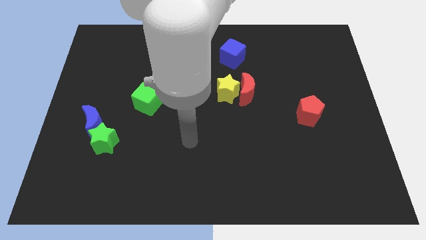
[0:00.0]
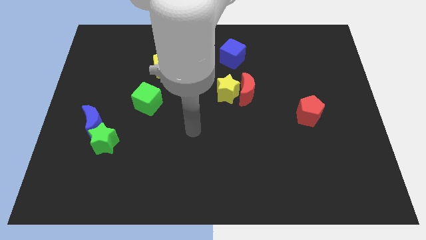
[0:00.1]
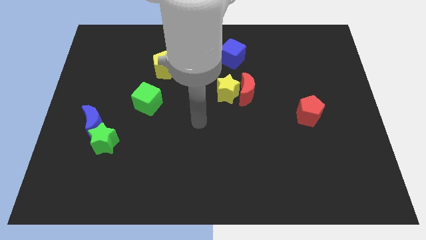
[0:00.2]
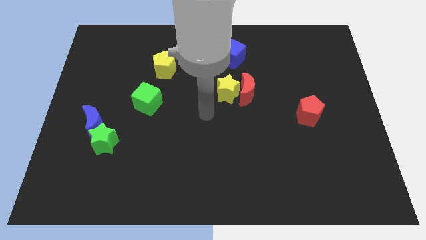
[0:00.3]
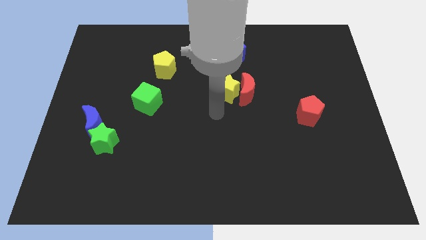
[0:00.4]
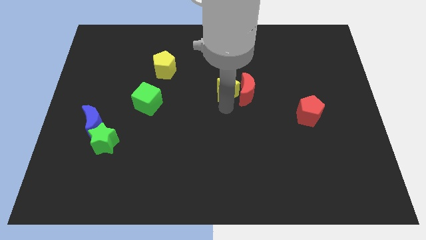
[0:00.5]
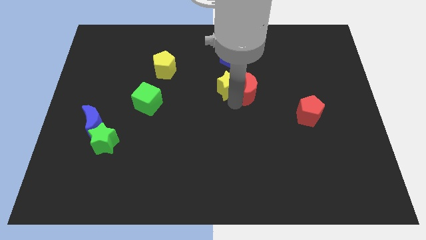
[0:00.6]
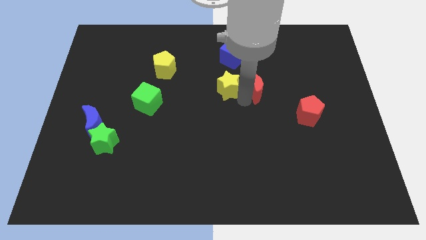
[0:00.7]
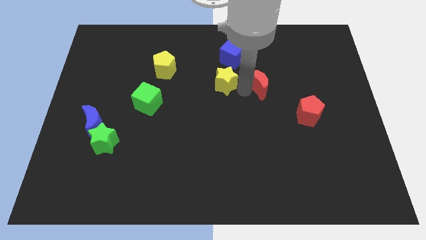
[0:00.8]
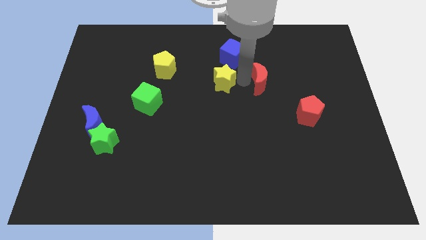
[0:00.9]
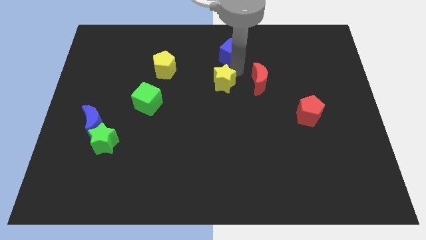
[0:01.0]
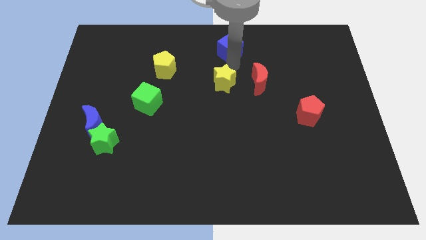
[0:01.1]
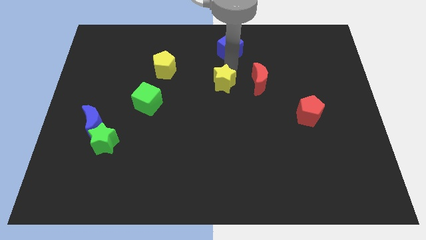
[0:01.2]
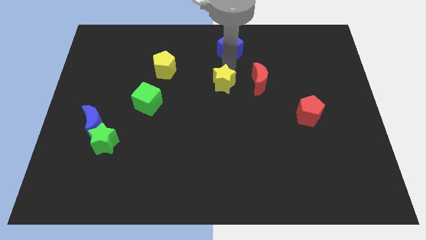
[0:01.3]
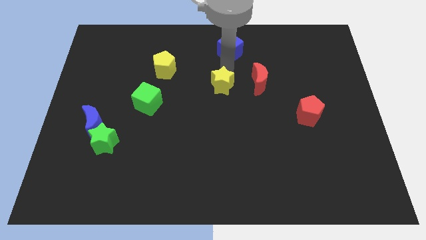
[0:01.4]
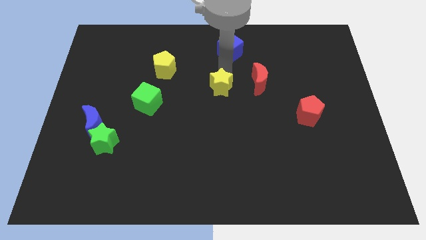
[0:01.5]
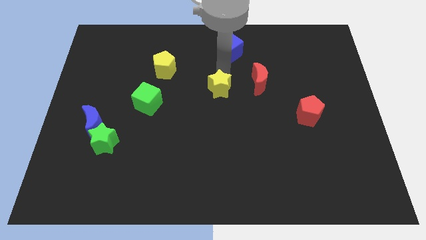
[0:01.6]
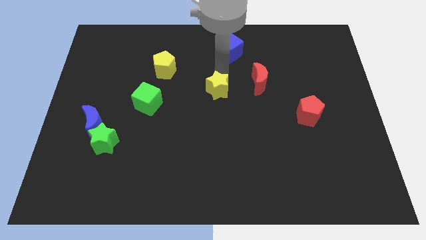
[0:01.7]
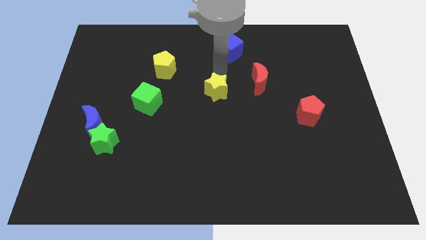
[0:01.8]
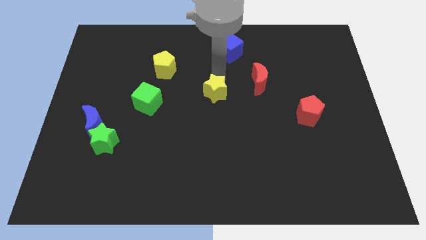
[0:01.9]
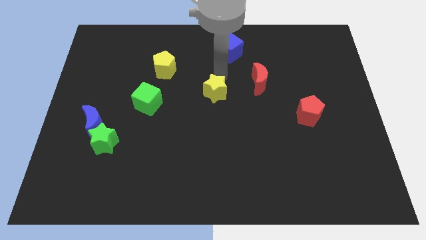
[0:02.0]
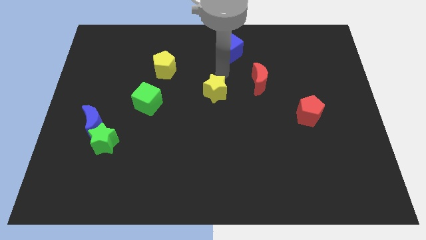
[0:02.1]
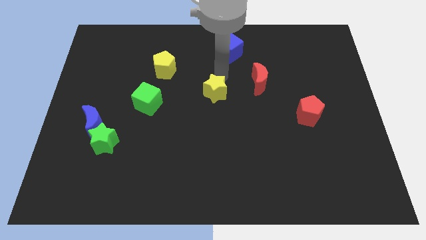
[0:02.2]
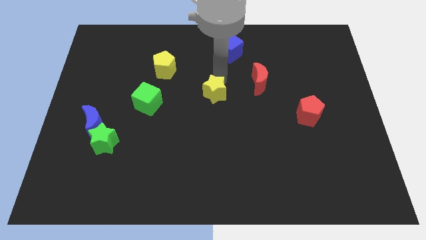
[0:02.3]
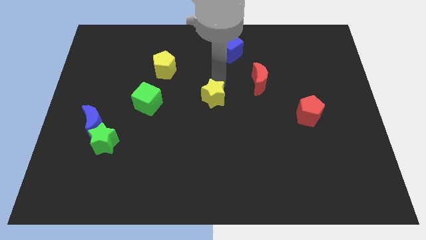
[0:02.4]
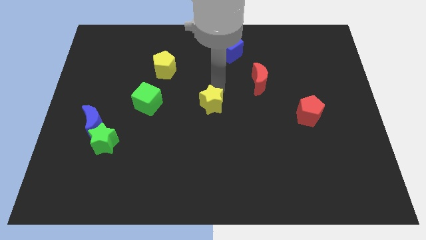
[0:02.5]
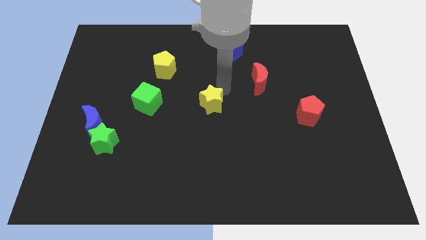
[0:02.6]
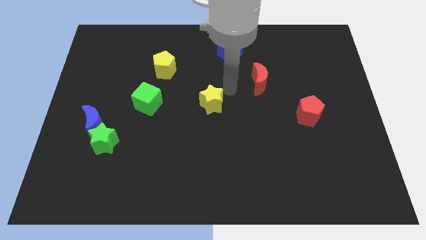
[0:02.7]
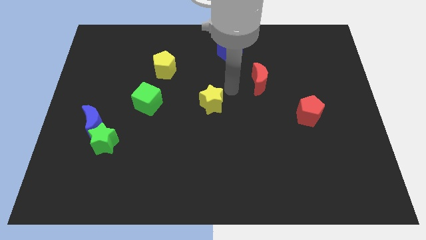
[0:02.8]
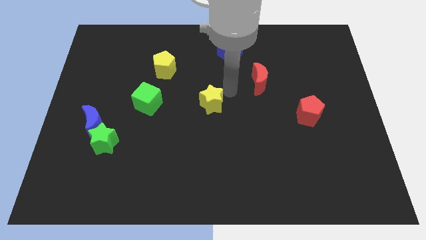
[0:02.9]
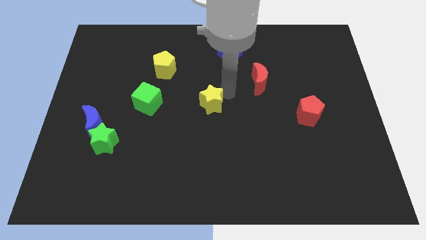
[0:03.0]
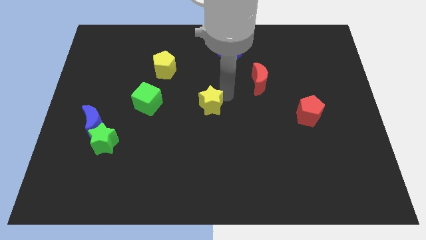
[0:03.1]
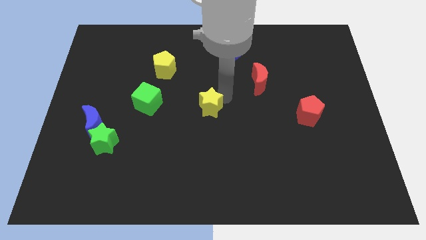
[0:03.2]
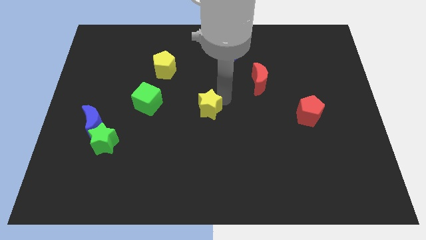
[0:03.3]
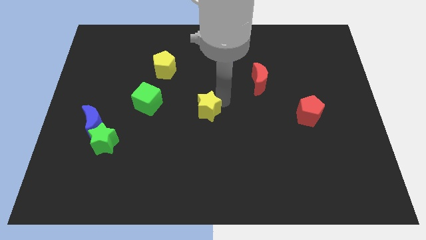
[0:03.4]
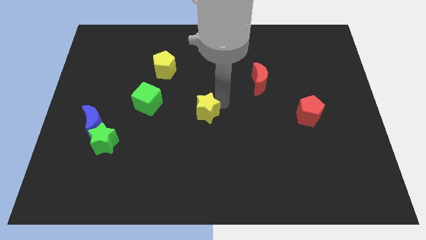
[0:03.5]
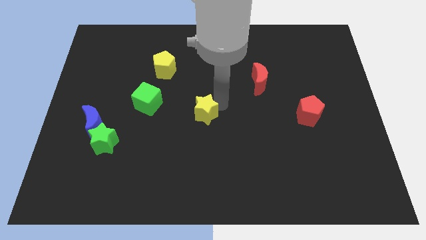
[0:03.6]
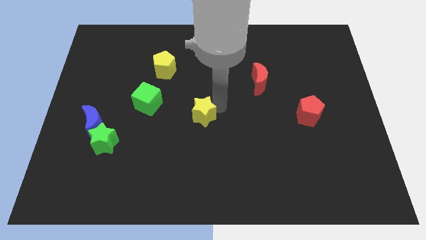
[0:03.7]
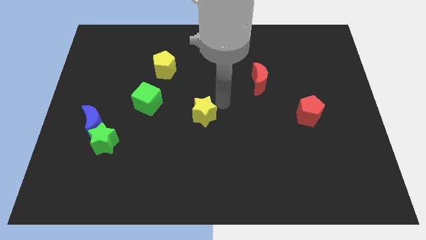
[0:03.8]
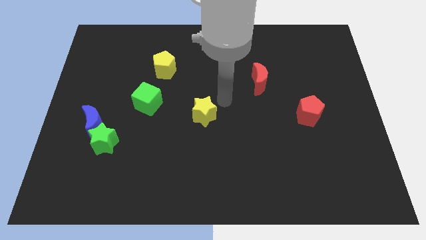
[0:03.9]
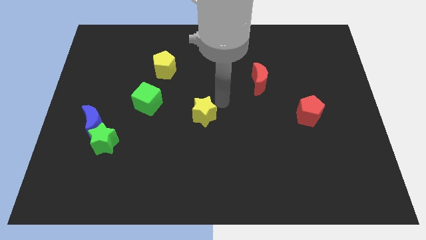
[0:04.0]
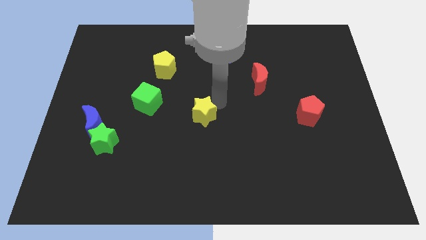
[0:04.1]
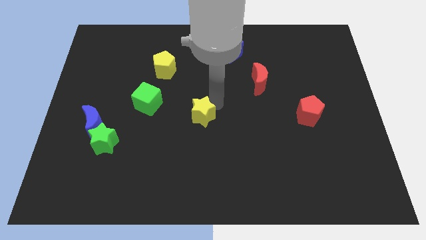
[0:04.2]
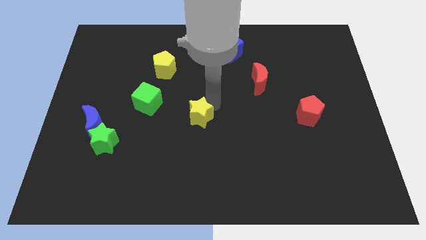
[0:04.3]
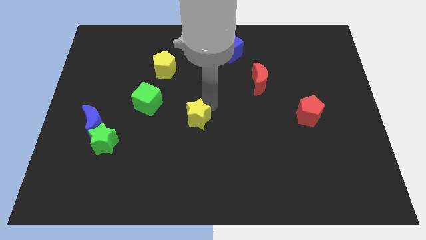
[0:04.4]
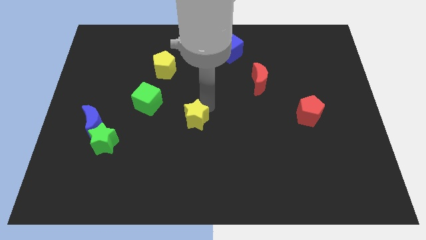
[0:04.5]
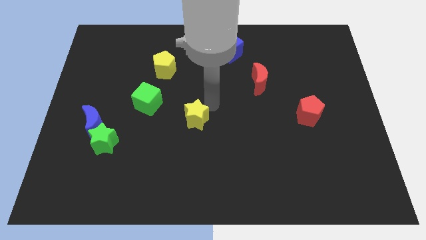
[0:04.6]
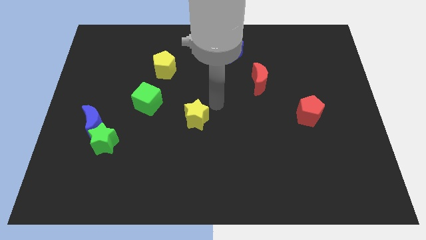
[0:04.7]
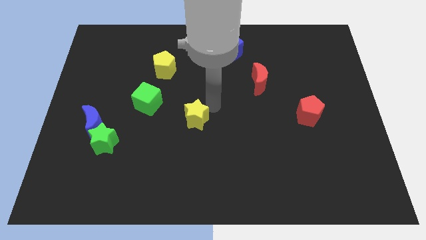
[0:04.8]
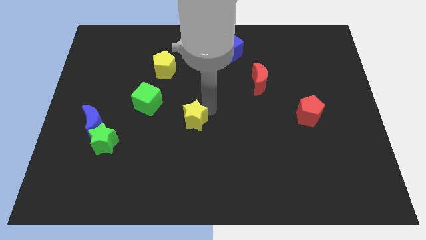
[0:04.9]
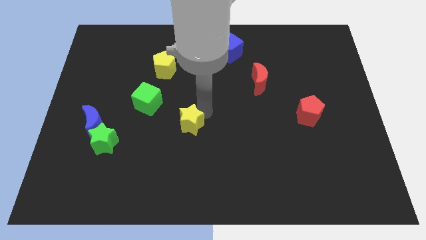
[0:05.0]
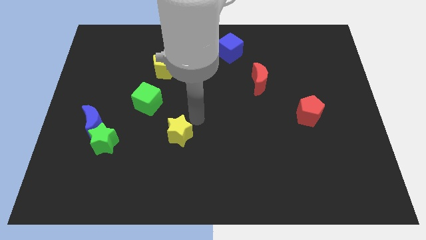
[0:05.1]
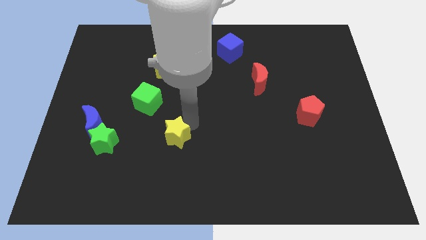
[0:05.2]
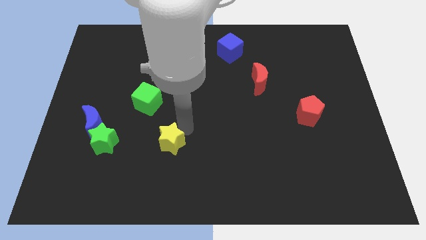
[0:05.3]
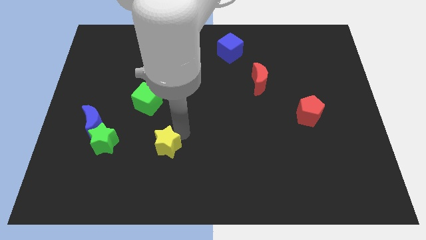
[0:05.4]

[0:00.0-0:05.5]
move the yellow star down and to the left

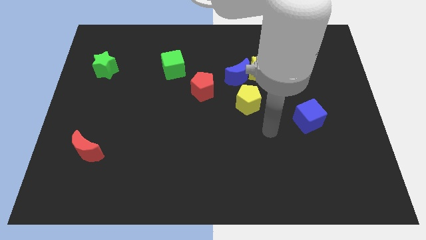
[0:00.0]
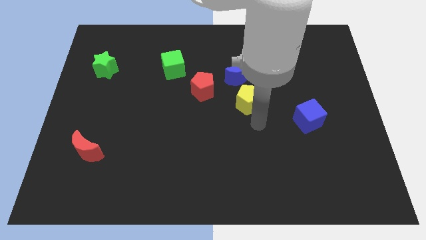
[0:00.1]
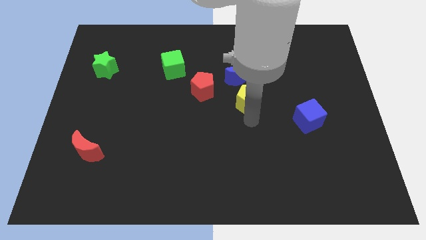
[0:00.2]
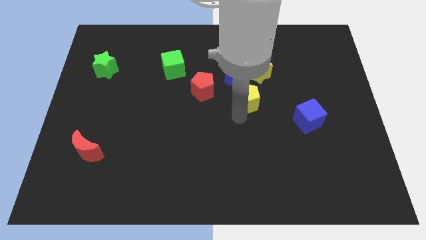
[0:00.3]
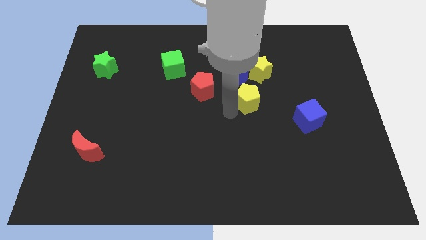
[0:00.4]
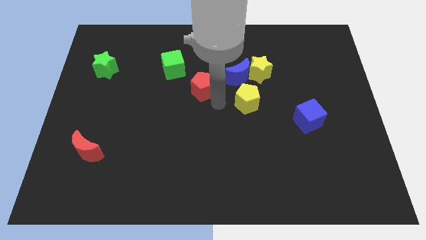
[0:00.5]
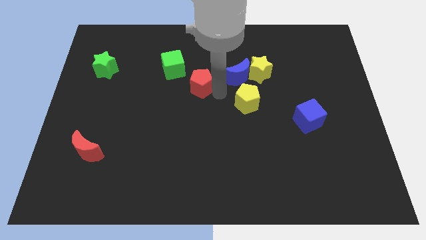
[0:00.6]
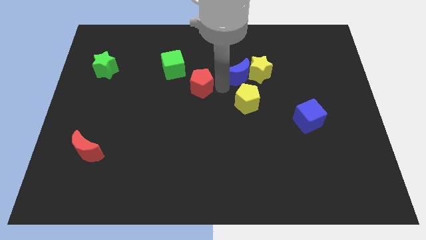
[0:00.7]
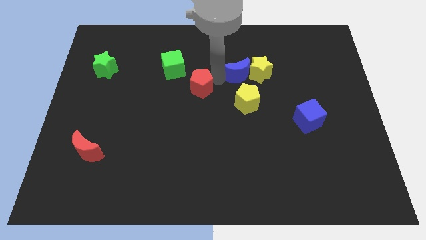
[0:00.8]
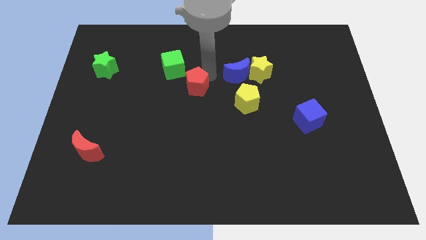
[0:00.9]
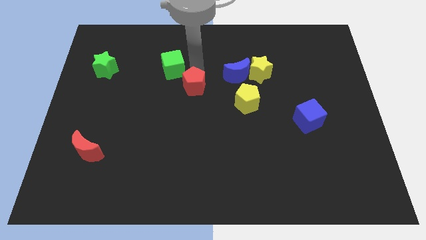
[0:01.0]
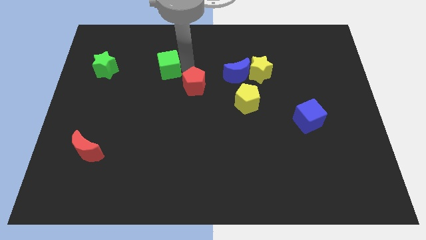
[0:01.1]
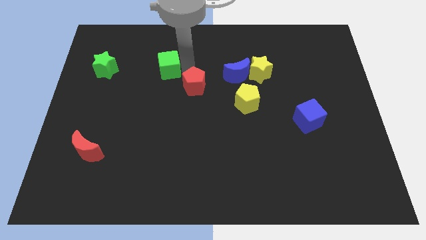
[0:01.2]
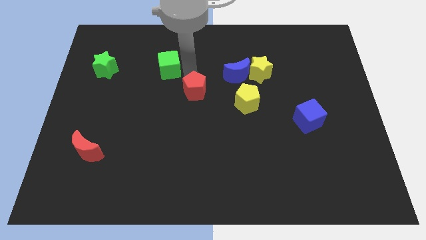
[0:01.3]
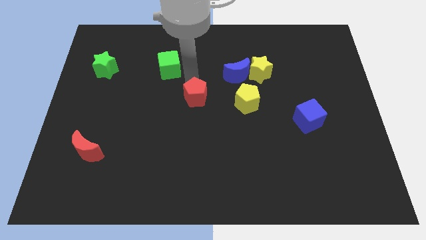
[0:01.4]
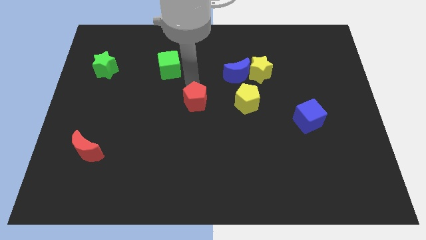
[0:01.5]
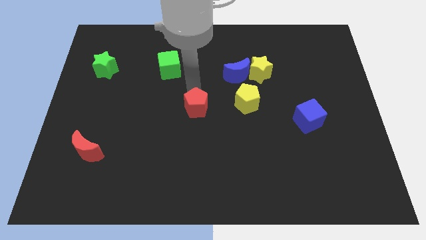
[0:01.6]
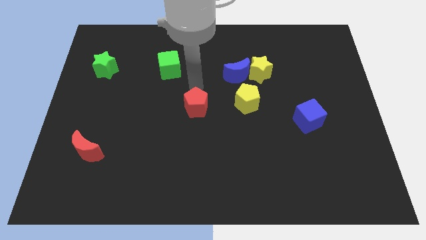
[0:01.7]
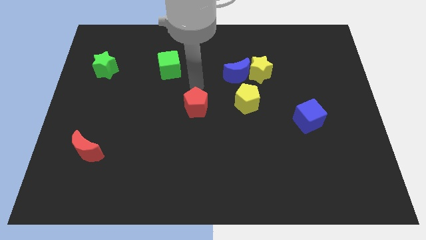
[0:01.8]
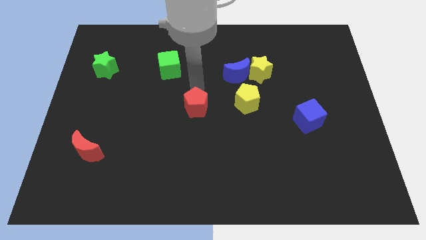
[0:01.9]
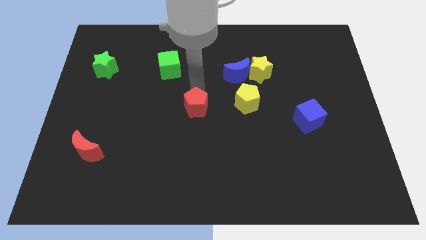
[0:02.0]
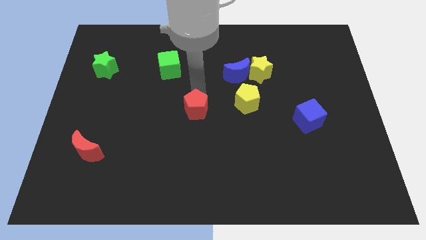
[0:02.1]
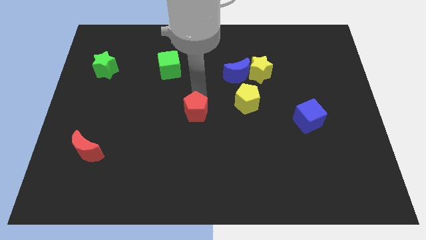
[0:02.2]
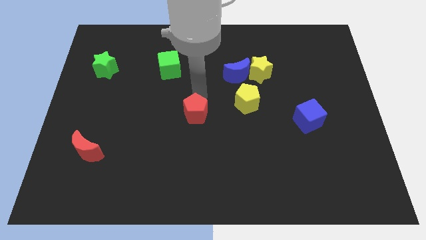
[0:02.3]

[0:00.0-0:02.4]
push the red pentagon a little down
